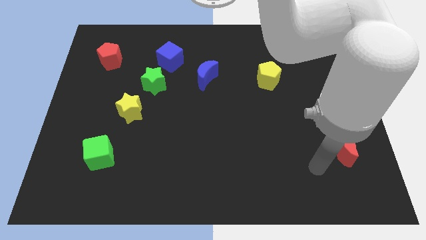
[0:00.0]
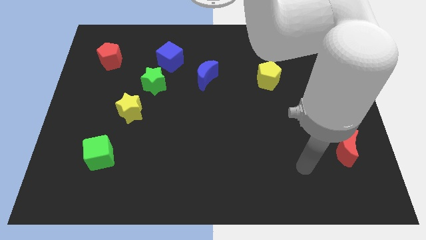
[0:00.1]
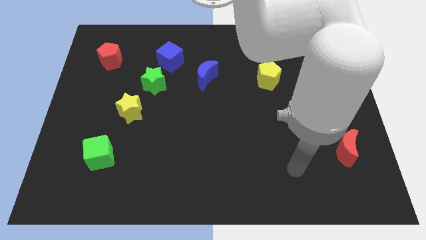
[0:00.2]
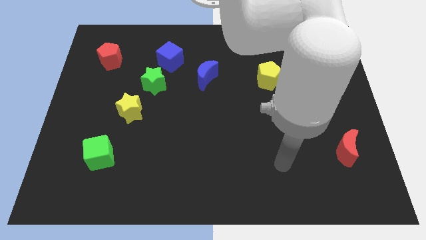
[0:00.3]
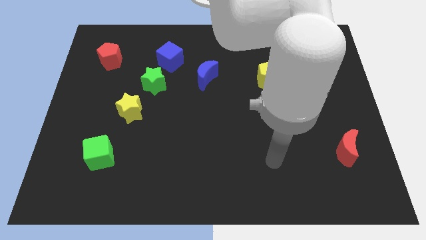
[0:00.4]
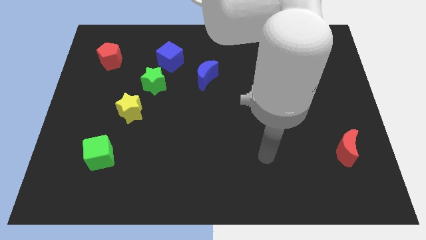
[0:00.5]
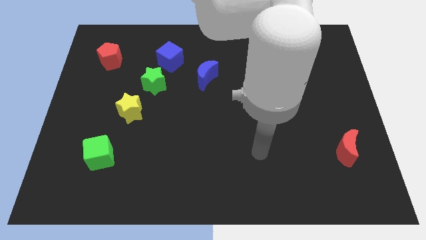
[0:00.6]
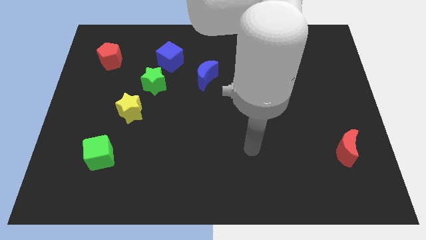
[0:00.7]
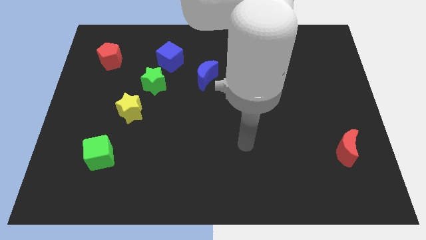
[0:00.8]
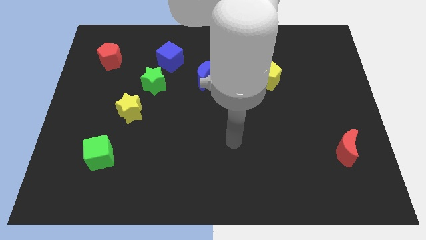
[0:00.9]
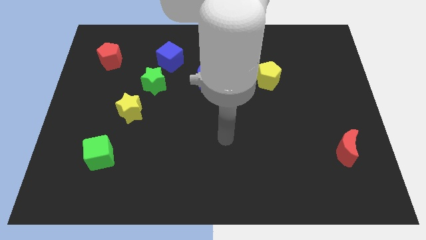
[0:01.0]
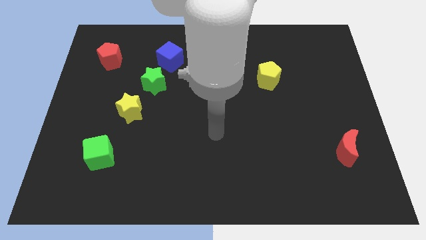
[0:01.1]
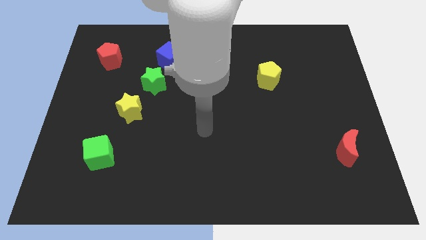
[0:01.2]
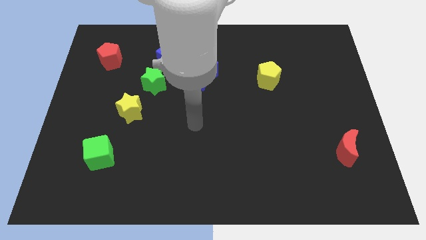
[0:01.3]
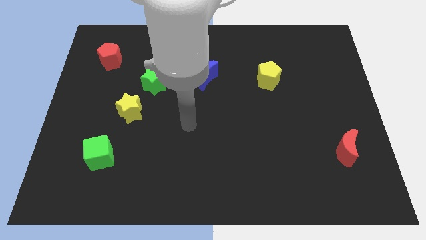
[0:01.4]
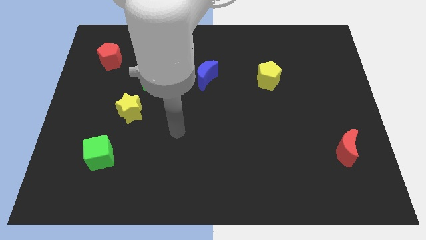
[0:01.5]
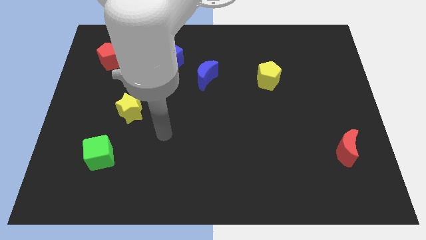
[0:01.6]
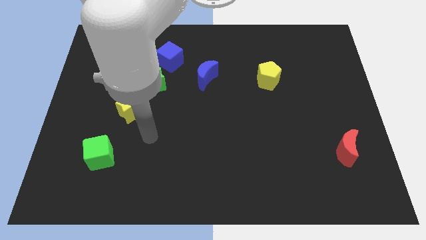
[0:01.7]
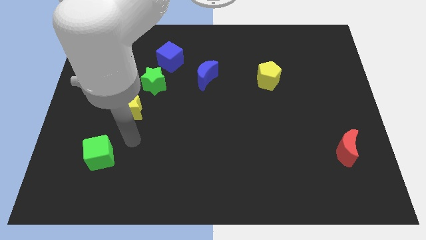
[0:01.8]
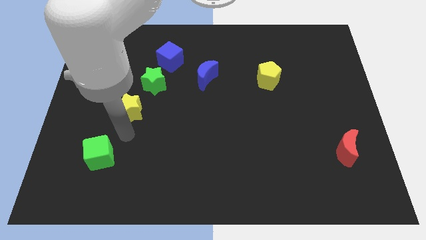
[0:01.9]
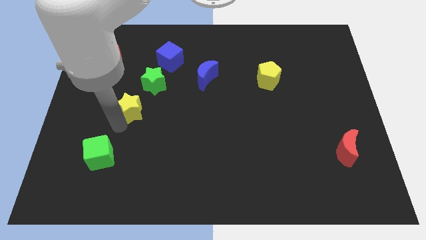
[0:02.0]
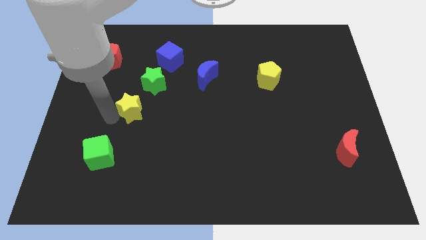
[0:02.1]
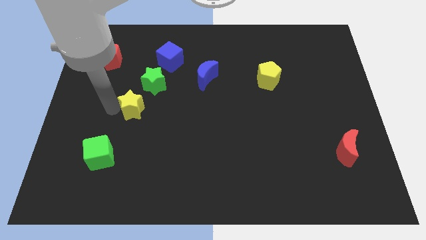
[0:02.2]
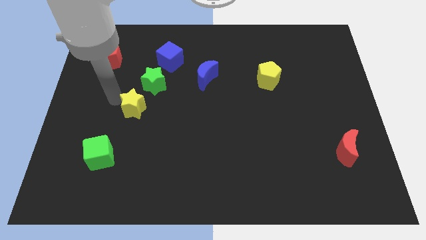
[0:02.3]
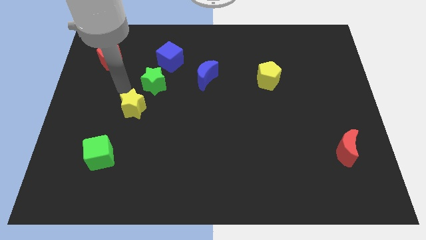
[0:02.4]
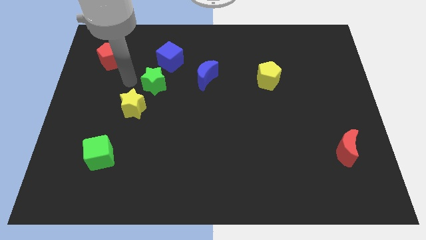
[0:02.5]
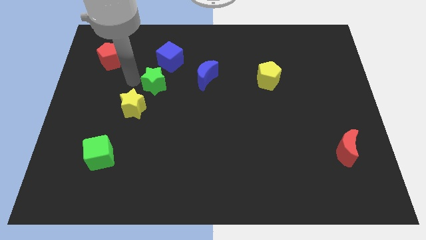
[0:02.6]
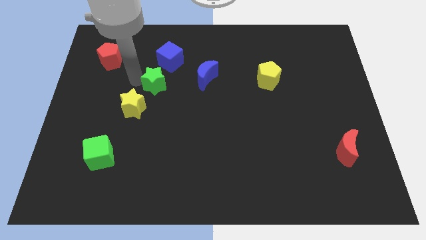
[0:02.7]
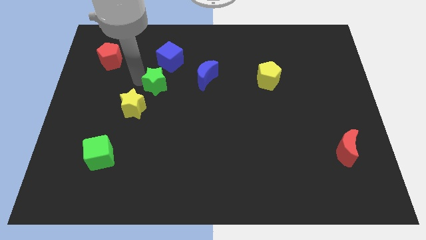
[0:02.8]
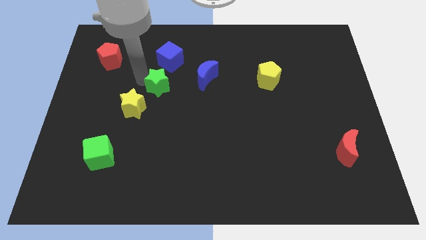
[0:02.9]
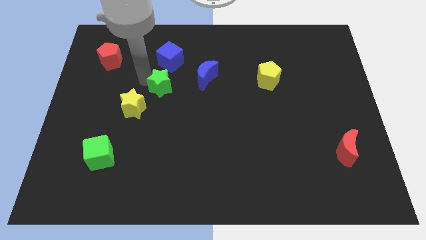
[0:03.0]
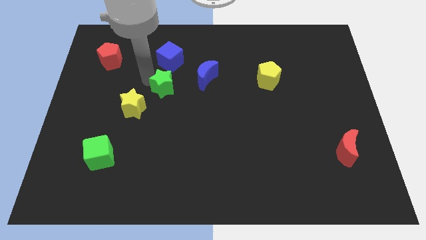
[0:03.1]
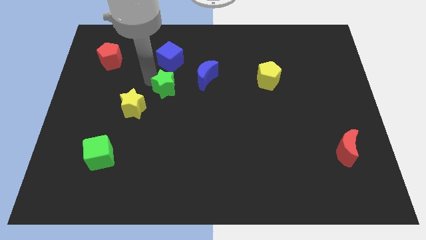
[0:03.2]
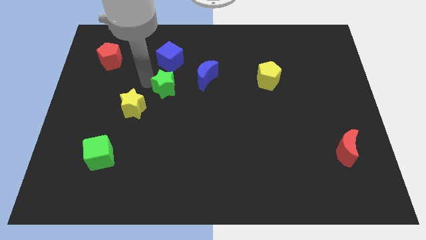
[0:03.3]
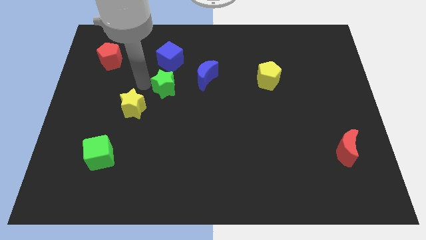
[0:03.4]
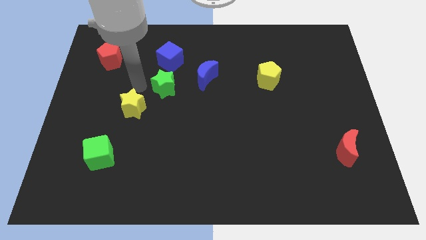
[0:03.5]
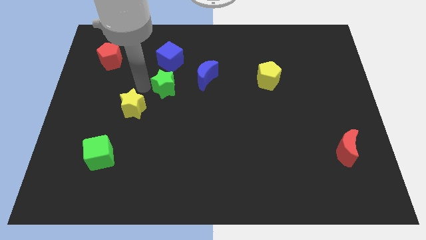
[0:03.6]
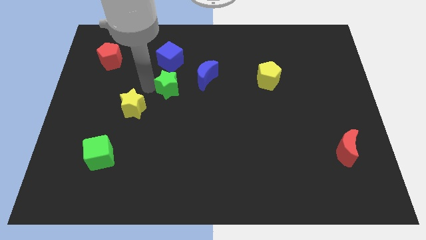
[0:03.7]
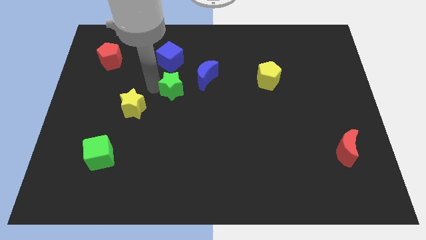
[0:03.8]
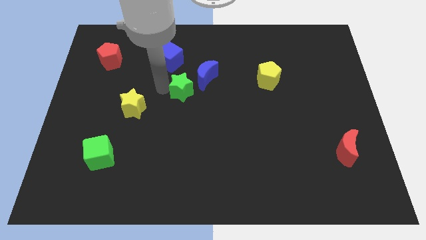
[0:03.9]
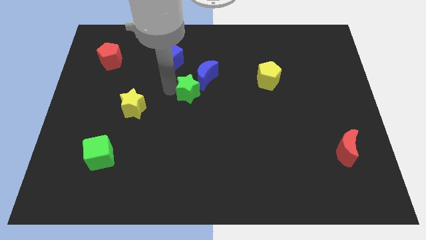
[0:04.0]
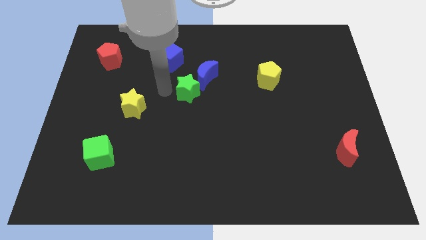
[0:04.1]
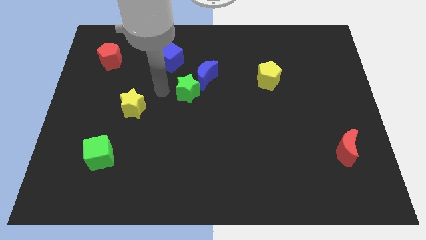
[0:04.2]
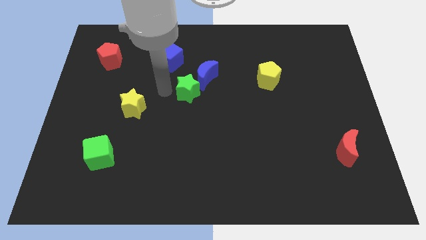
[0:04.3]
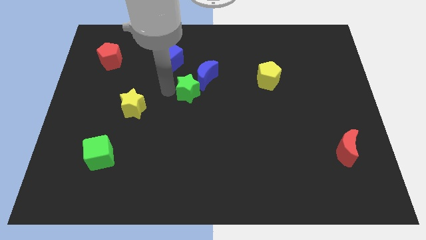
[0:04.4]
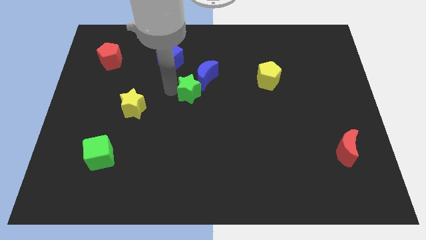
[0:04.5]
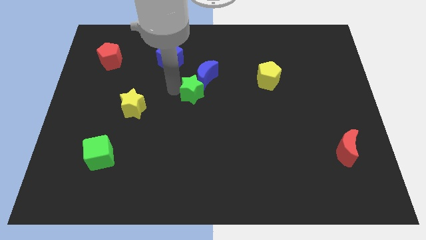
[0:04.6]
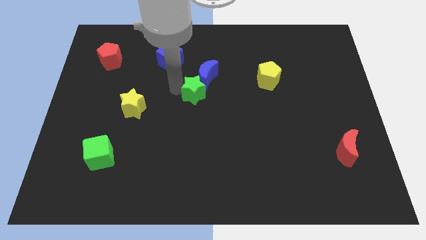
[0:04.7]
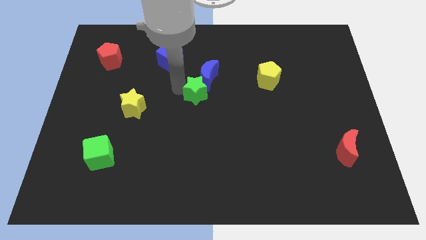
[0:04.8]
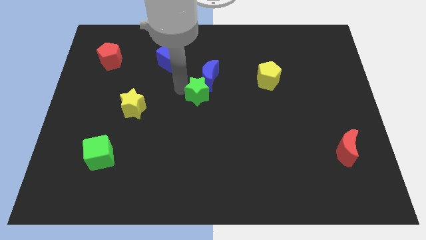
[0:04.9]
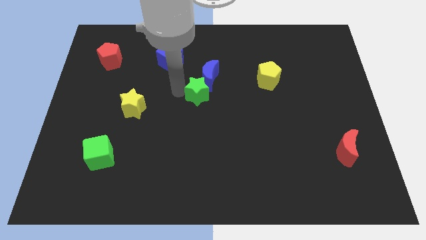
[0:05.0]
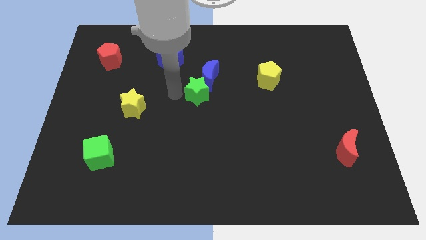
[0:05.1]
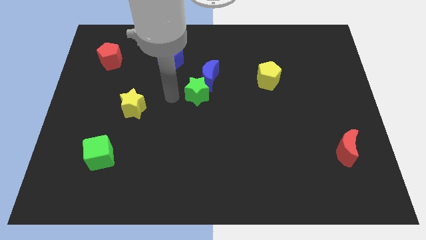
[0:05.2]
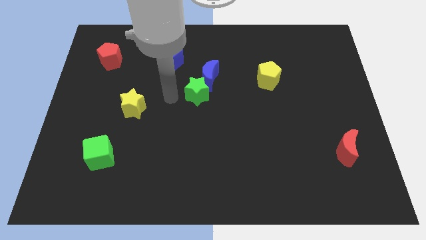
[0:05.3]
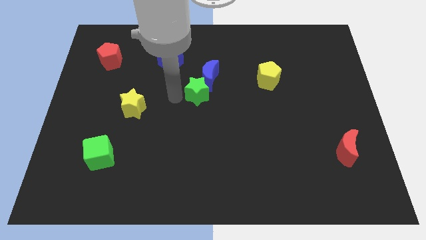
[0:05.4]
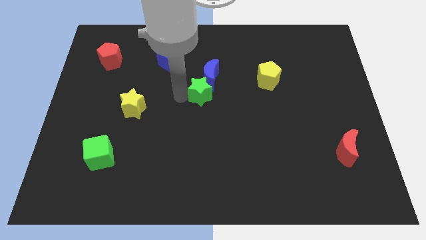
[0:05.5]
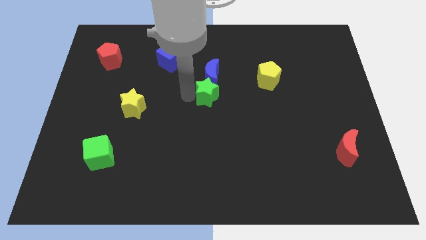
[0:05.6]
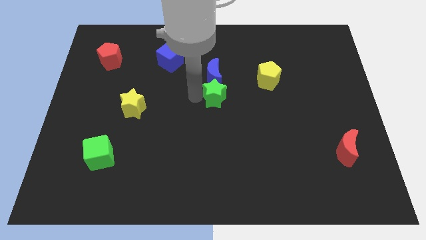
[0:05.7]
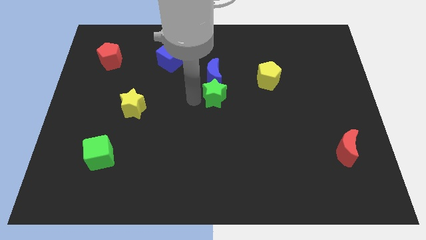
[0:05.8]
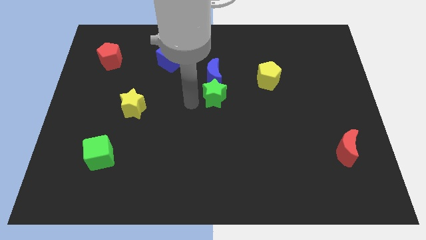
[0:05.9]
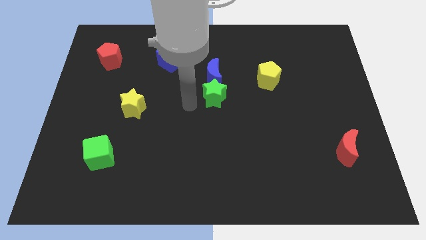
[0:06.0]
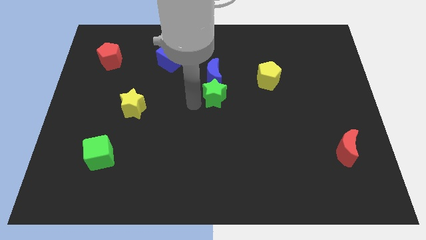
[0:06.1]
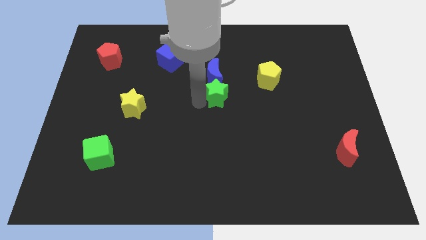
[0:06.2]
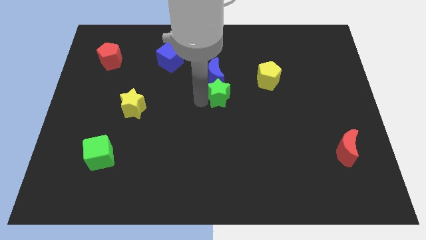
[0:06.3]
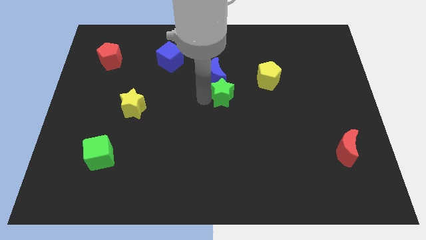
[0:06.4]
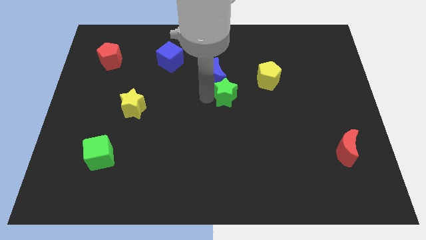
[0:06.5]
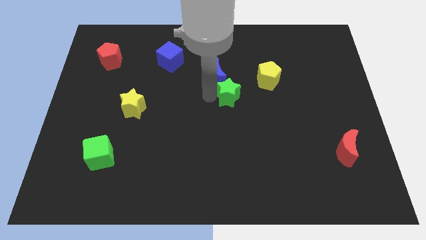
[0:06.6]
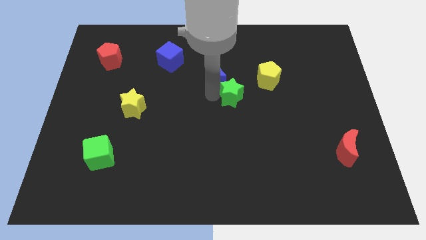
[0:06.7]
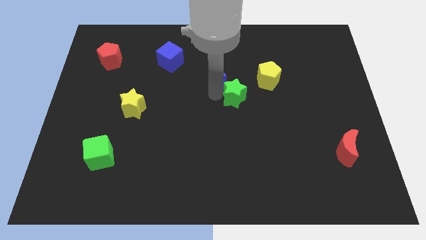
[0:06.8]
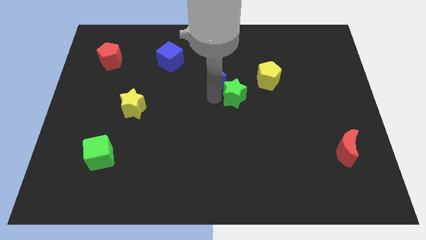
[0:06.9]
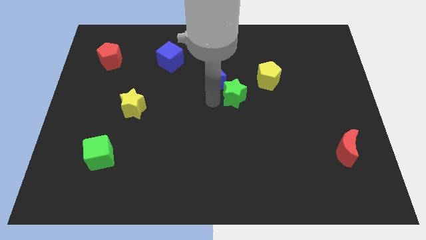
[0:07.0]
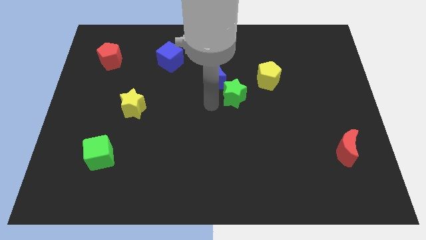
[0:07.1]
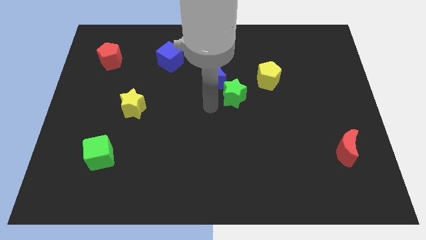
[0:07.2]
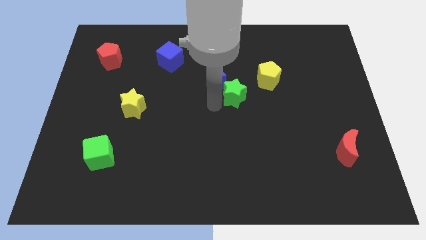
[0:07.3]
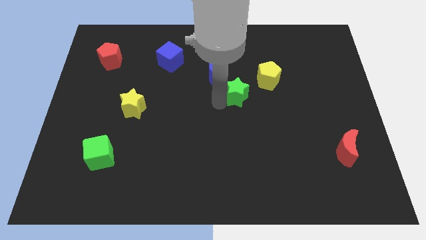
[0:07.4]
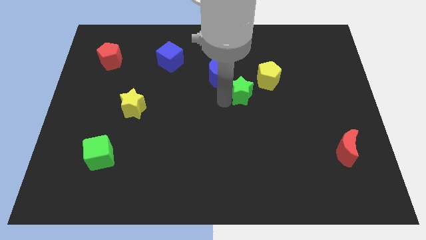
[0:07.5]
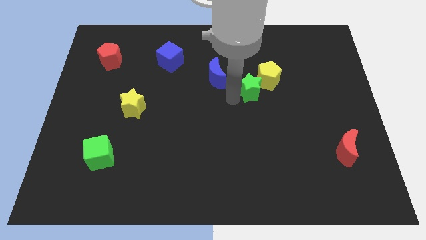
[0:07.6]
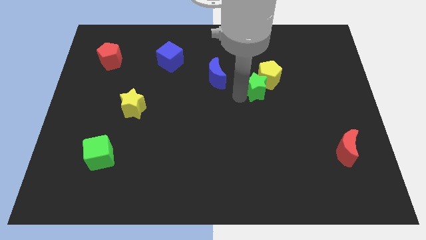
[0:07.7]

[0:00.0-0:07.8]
move the green star towards the yellow pentagon
